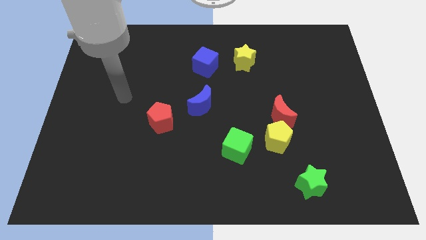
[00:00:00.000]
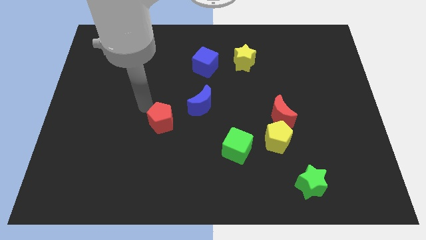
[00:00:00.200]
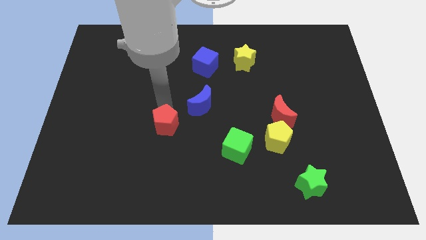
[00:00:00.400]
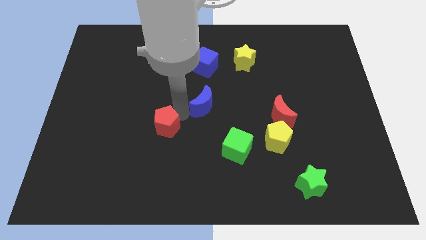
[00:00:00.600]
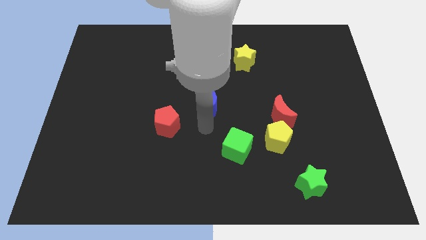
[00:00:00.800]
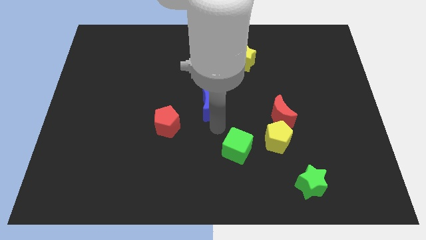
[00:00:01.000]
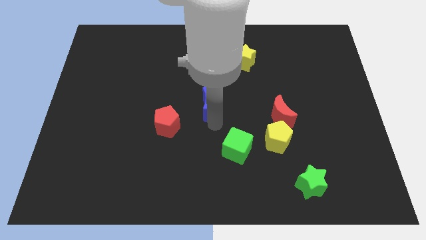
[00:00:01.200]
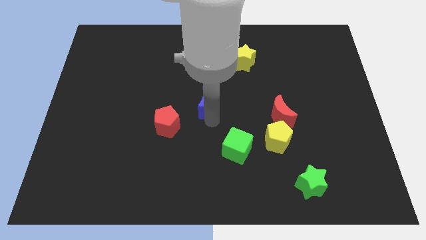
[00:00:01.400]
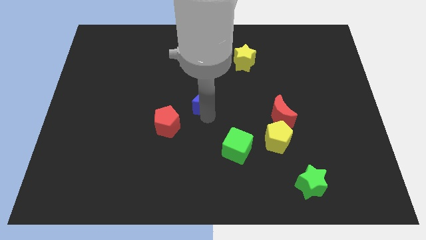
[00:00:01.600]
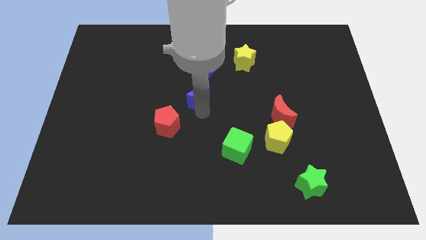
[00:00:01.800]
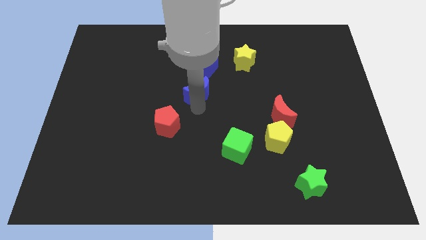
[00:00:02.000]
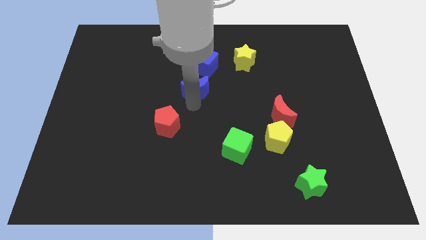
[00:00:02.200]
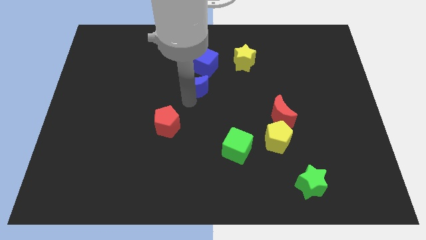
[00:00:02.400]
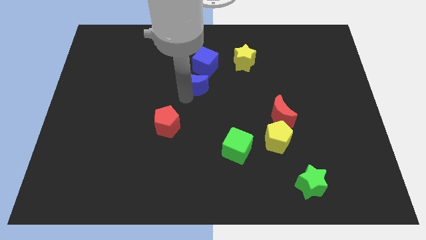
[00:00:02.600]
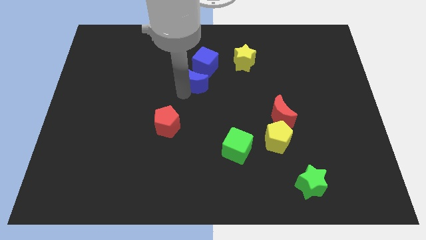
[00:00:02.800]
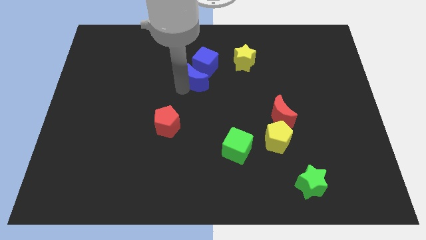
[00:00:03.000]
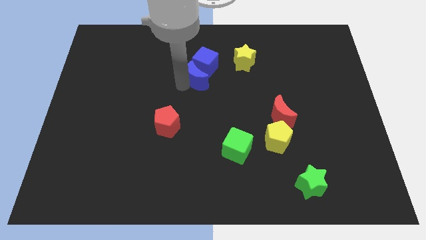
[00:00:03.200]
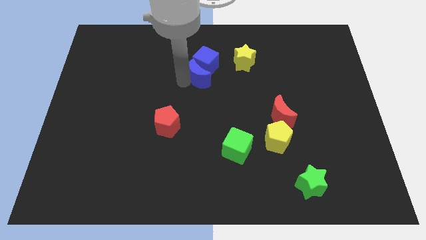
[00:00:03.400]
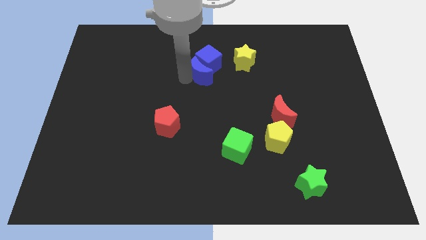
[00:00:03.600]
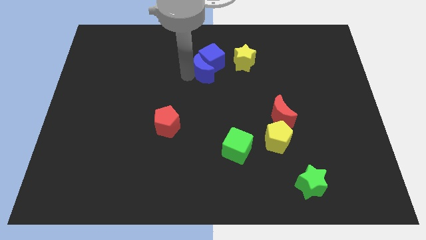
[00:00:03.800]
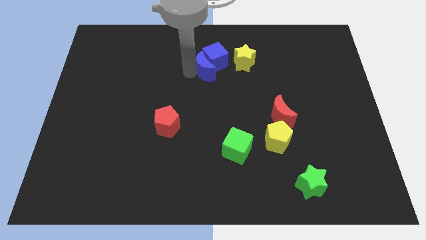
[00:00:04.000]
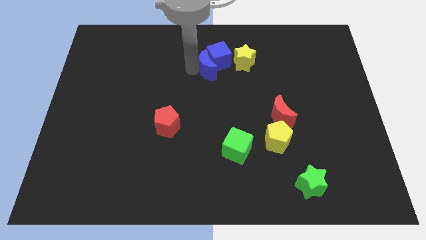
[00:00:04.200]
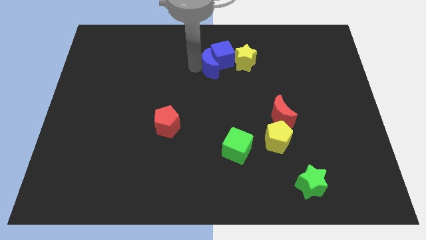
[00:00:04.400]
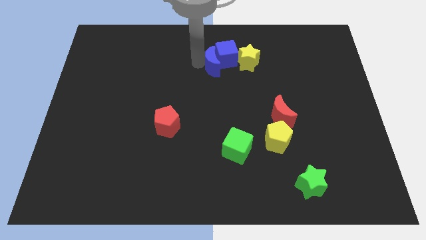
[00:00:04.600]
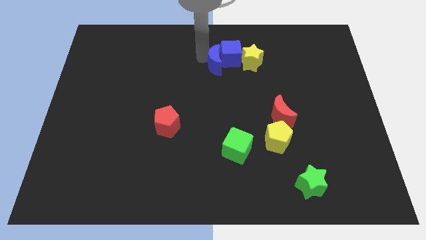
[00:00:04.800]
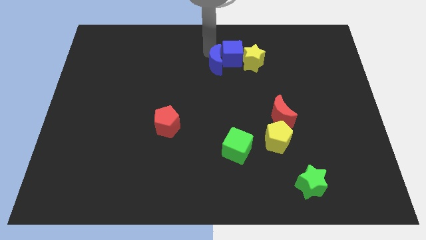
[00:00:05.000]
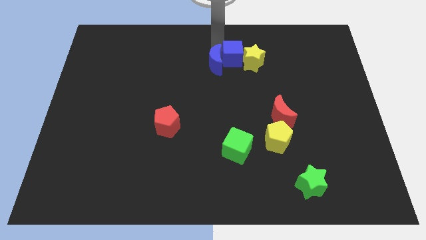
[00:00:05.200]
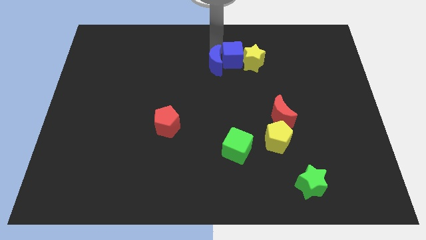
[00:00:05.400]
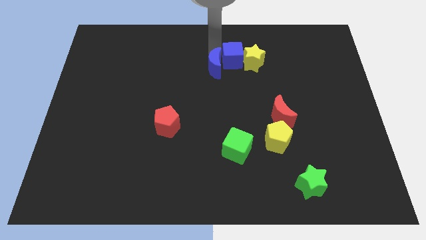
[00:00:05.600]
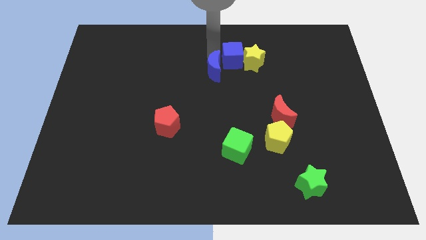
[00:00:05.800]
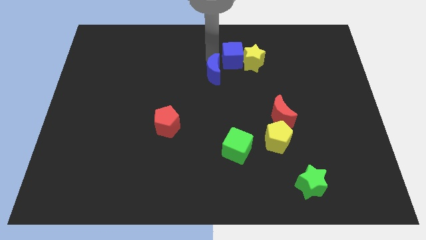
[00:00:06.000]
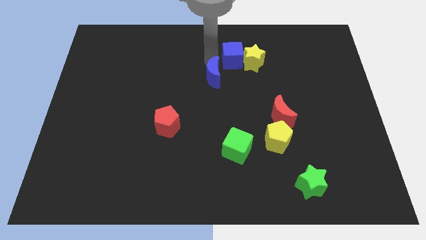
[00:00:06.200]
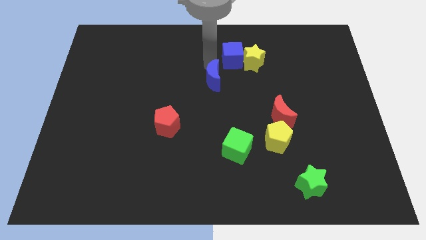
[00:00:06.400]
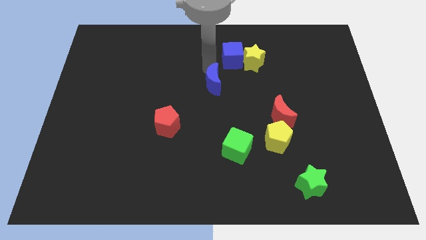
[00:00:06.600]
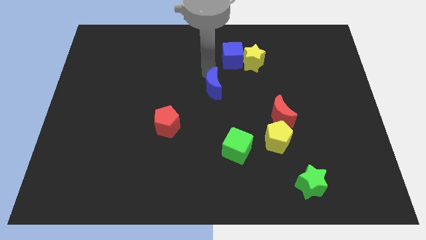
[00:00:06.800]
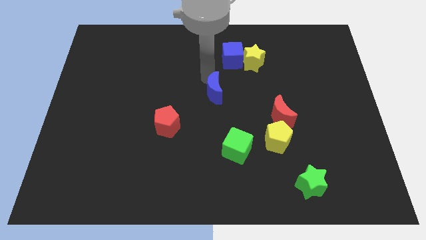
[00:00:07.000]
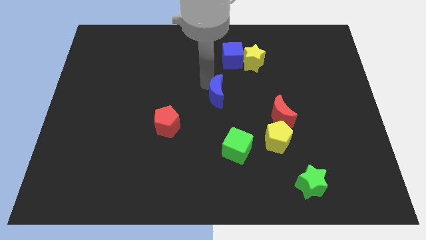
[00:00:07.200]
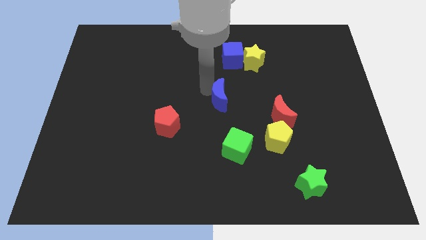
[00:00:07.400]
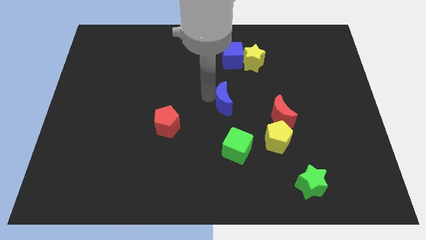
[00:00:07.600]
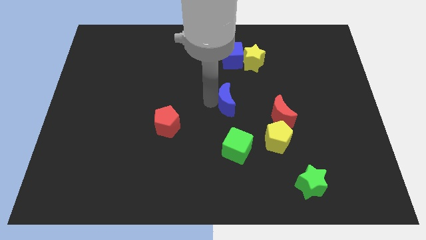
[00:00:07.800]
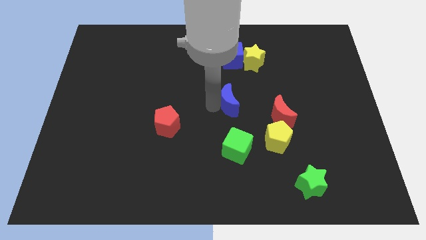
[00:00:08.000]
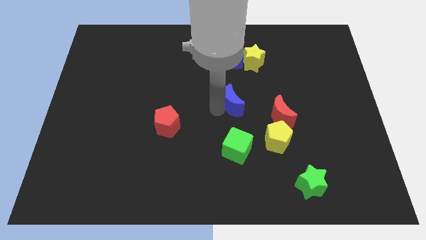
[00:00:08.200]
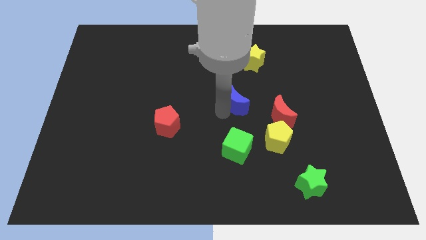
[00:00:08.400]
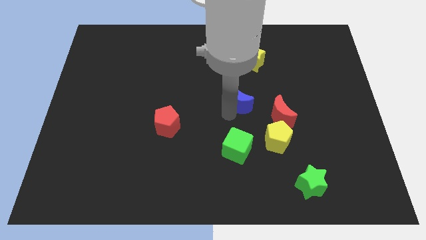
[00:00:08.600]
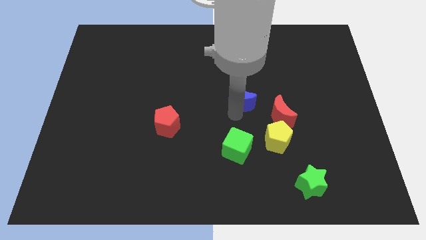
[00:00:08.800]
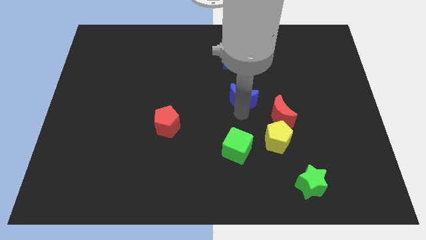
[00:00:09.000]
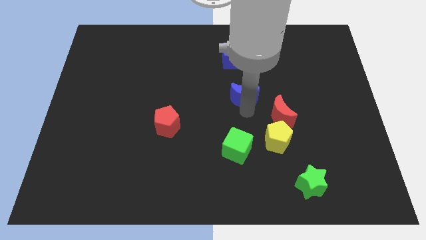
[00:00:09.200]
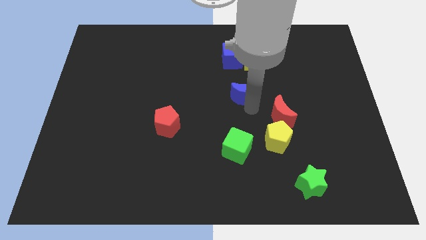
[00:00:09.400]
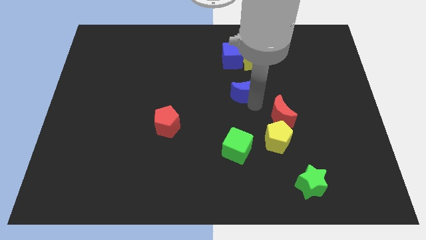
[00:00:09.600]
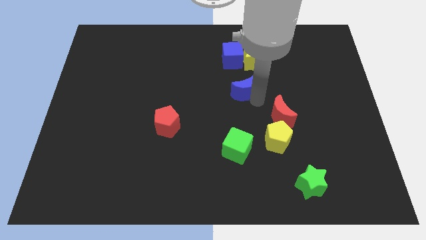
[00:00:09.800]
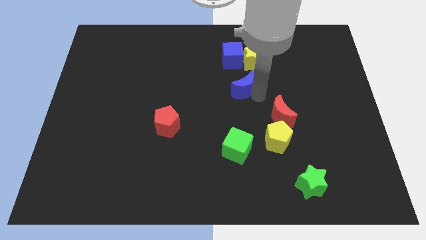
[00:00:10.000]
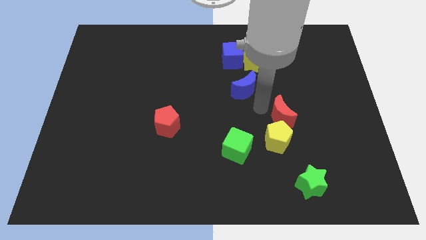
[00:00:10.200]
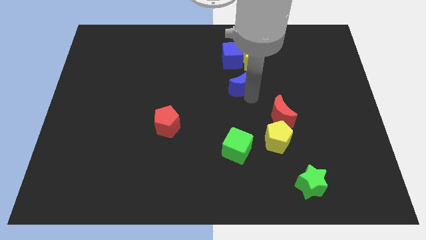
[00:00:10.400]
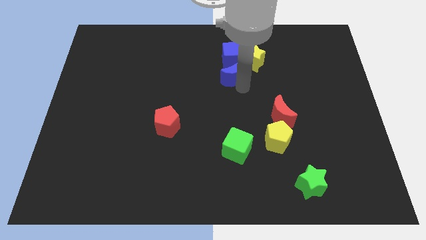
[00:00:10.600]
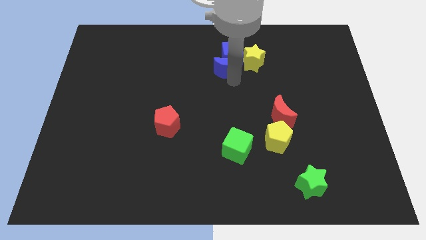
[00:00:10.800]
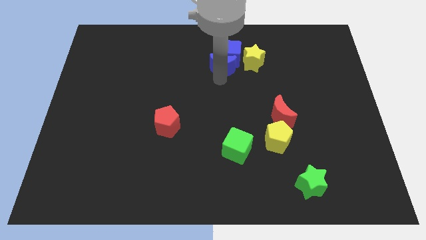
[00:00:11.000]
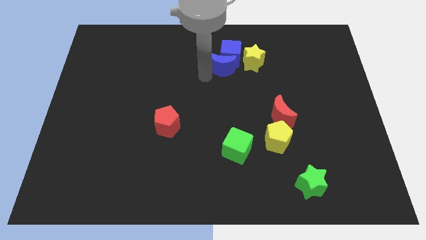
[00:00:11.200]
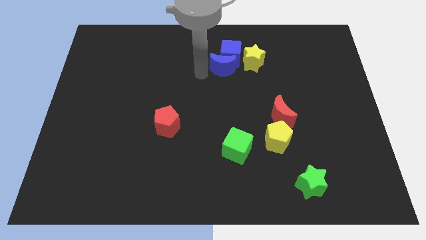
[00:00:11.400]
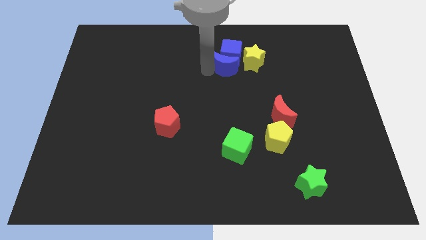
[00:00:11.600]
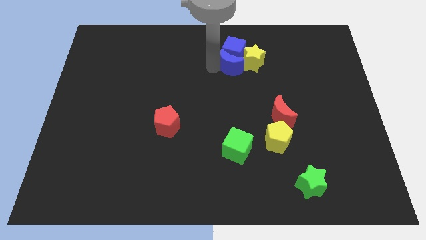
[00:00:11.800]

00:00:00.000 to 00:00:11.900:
put the blue moon to the yellow star

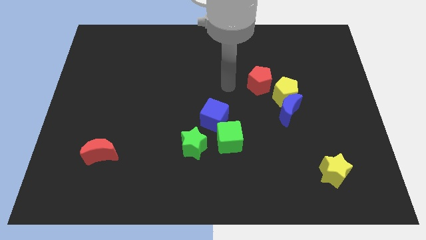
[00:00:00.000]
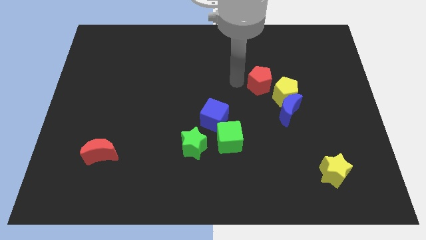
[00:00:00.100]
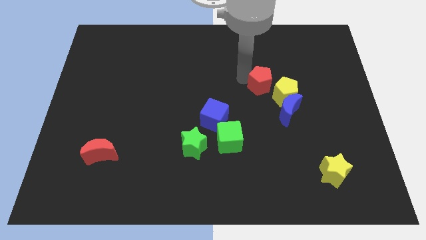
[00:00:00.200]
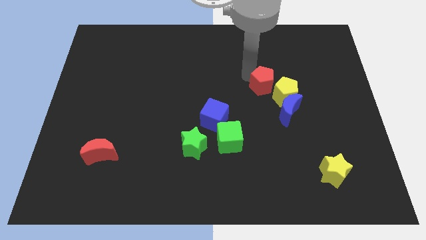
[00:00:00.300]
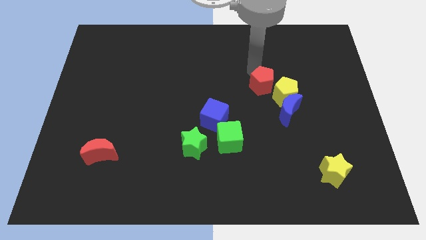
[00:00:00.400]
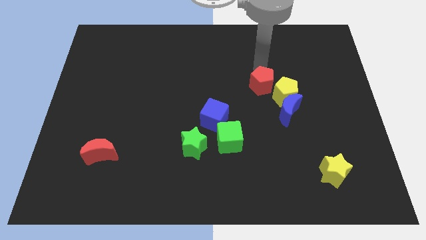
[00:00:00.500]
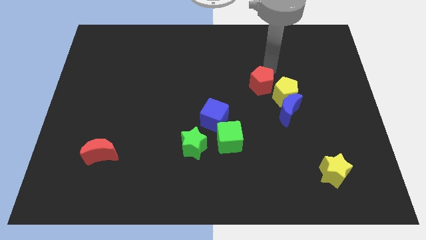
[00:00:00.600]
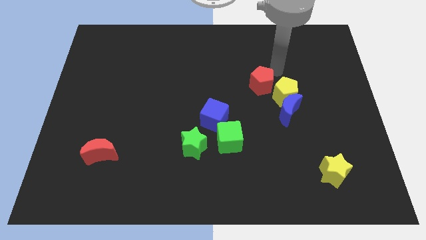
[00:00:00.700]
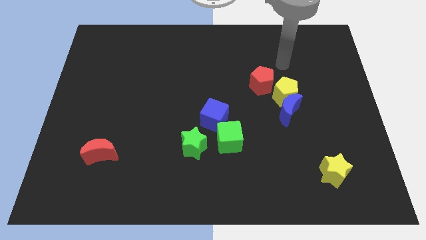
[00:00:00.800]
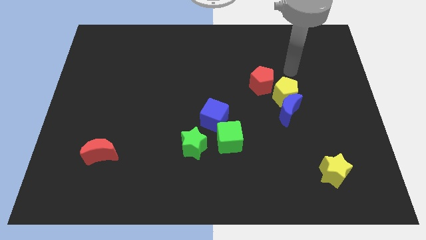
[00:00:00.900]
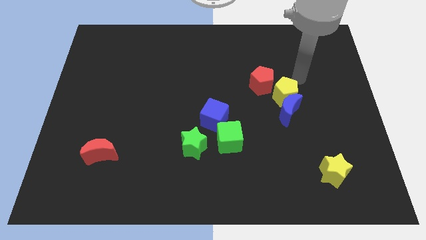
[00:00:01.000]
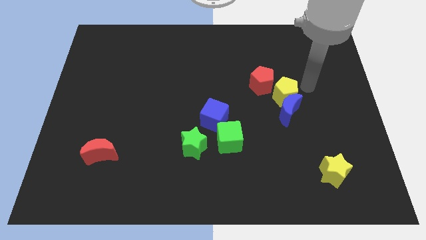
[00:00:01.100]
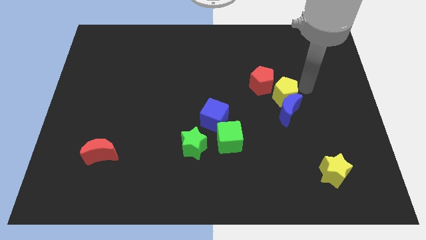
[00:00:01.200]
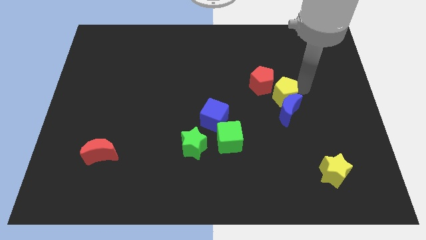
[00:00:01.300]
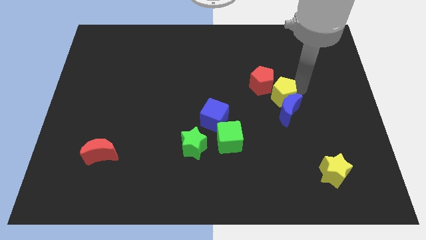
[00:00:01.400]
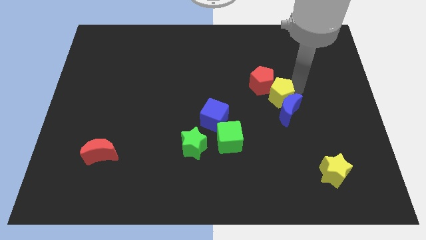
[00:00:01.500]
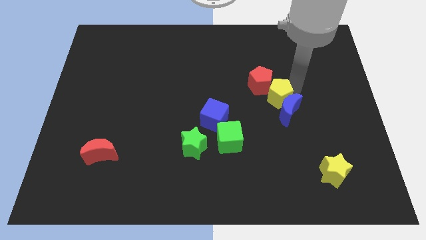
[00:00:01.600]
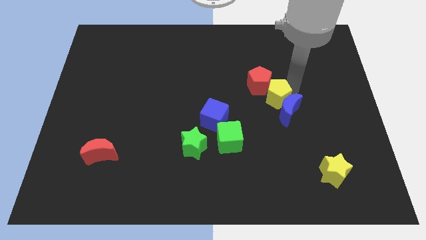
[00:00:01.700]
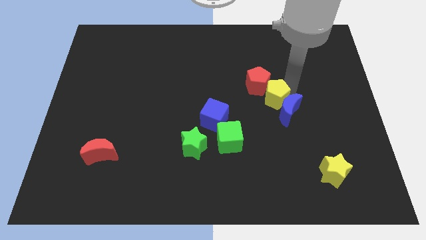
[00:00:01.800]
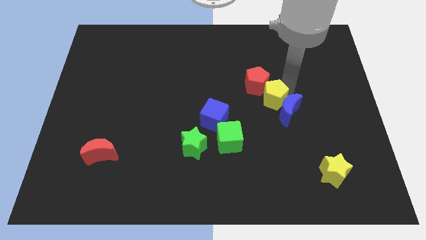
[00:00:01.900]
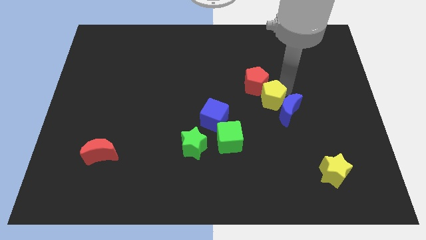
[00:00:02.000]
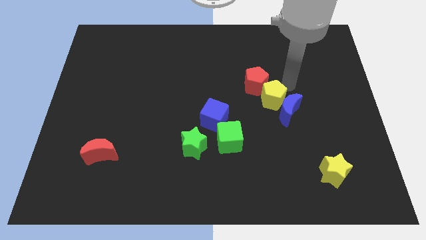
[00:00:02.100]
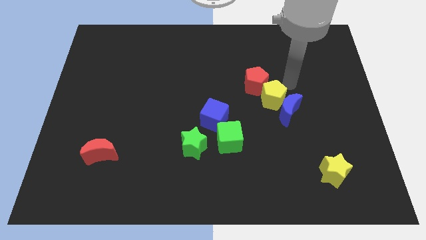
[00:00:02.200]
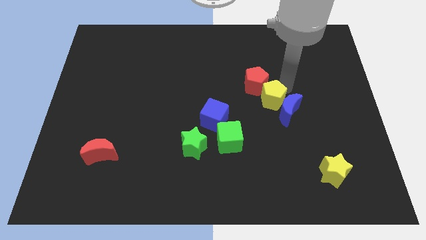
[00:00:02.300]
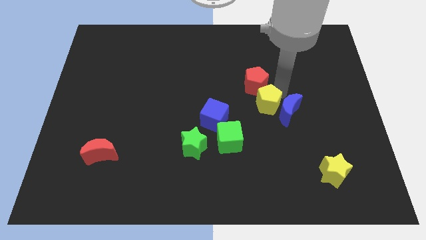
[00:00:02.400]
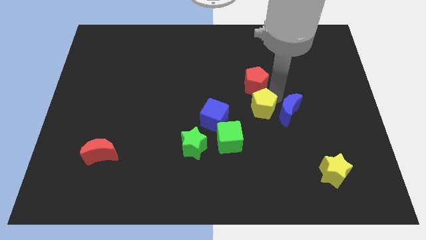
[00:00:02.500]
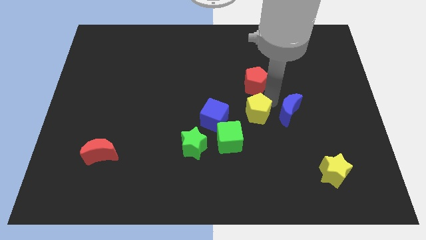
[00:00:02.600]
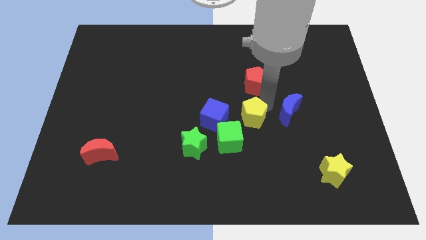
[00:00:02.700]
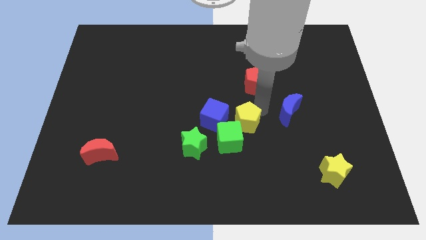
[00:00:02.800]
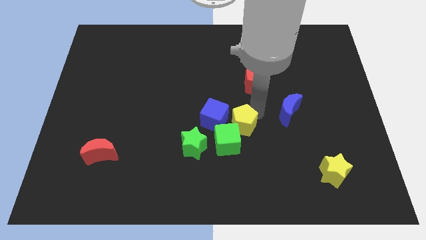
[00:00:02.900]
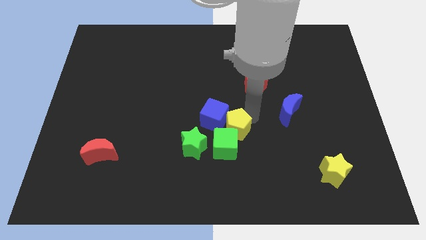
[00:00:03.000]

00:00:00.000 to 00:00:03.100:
push the yellow pentagon next to the green cube
